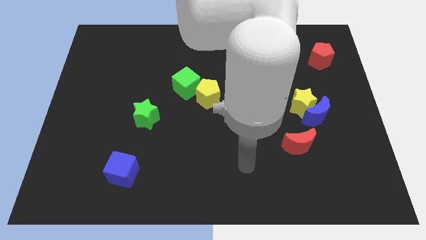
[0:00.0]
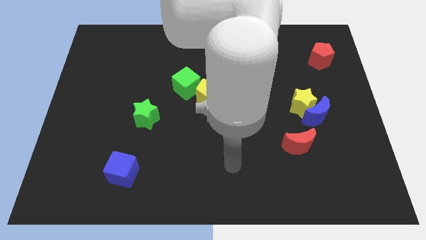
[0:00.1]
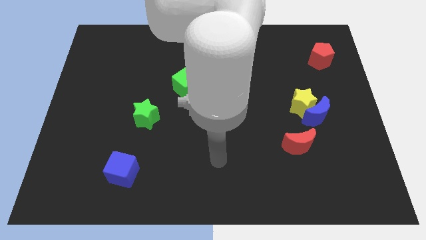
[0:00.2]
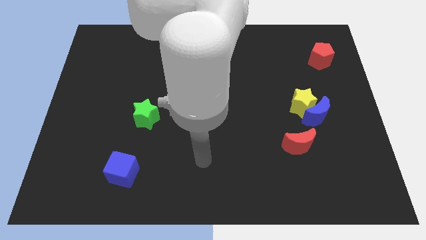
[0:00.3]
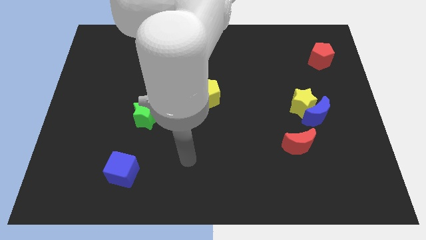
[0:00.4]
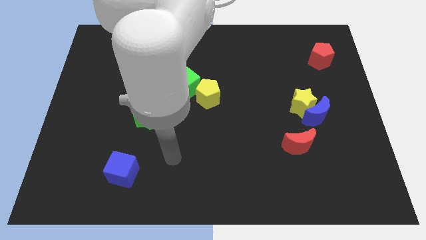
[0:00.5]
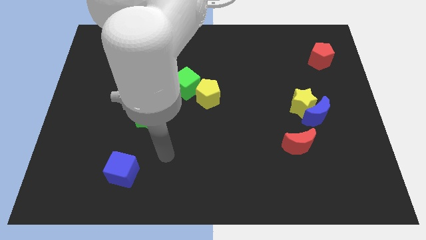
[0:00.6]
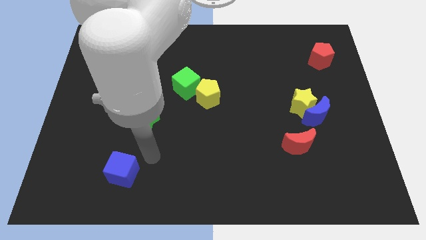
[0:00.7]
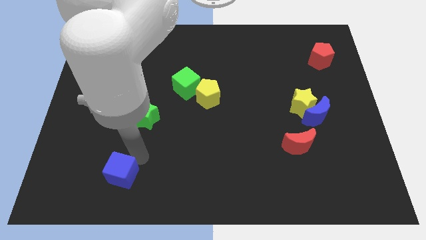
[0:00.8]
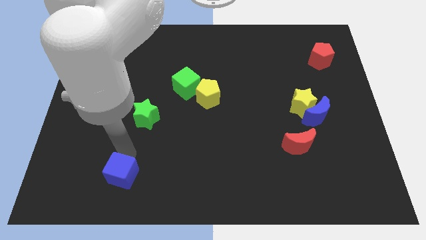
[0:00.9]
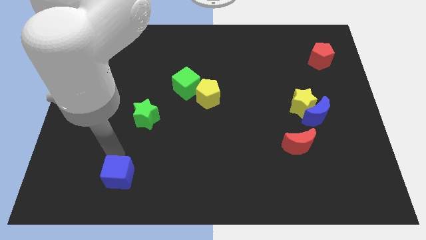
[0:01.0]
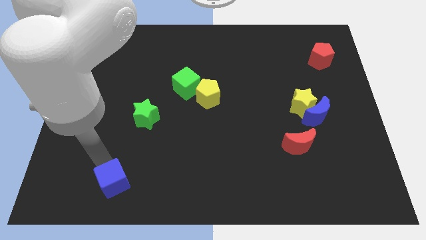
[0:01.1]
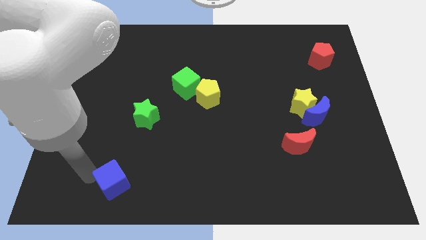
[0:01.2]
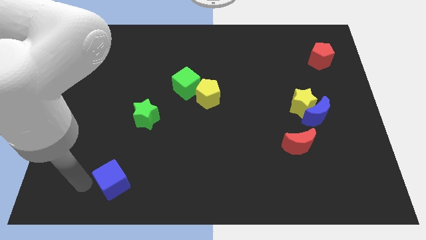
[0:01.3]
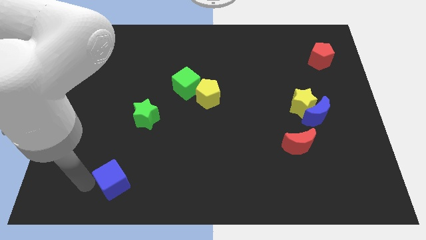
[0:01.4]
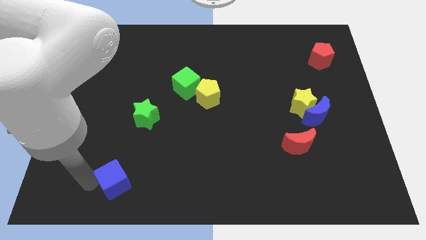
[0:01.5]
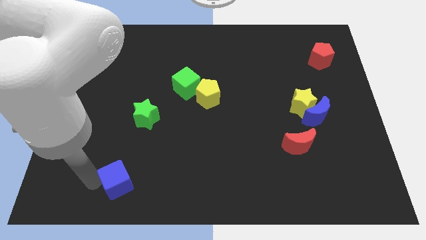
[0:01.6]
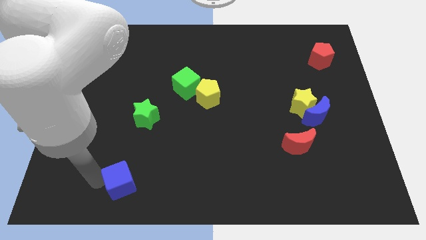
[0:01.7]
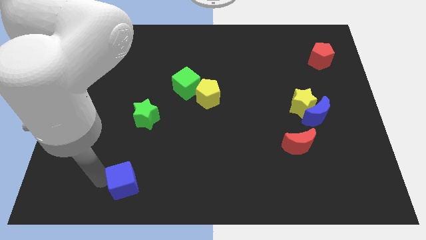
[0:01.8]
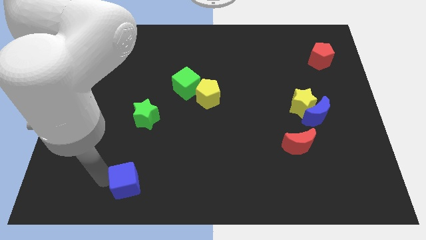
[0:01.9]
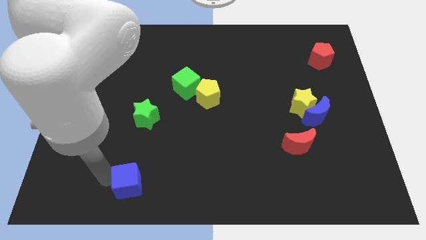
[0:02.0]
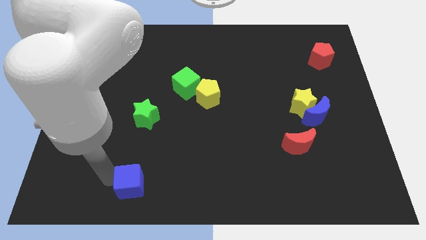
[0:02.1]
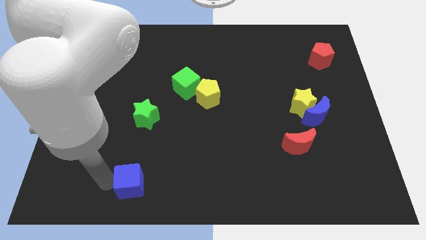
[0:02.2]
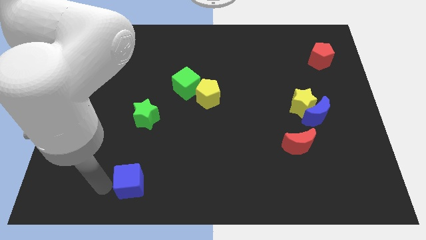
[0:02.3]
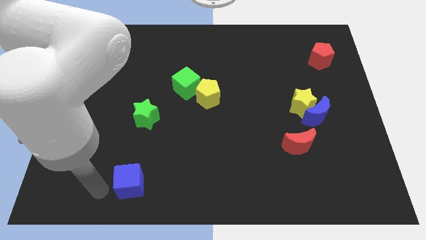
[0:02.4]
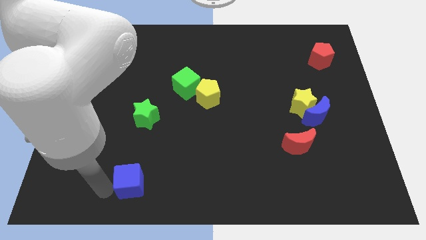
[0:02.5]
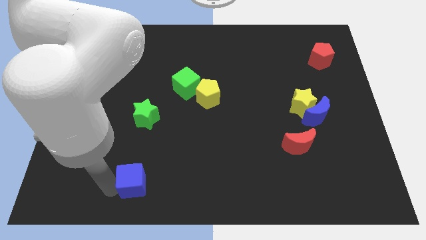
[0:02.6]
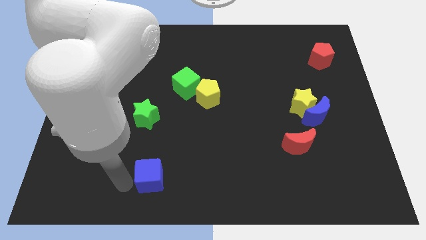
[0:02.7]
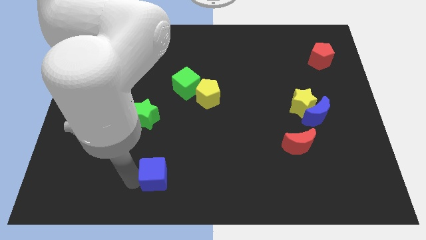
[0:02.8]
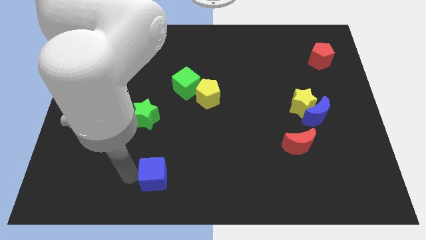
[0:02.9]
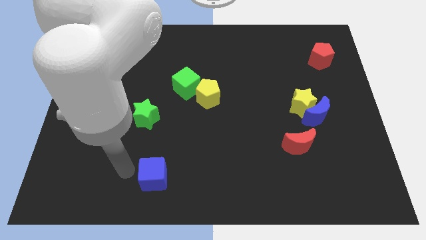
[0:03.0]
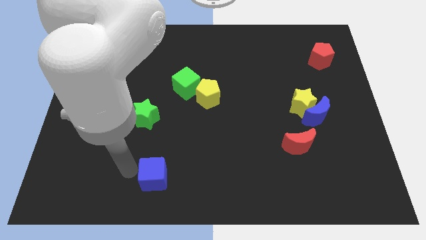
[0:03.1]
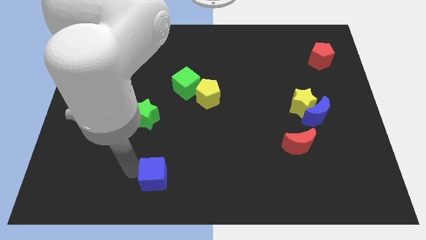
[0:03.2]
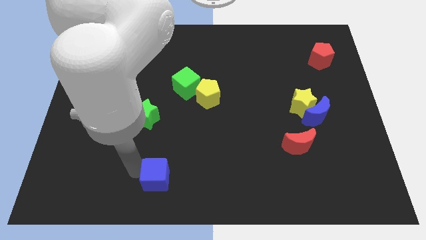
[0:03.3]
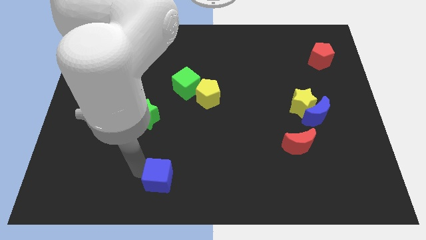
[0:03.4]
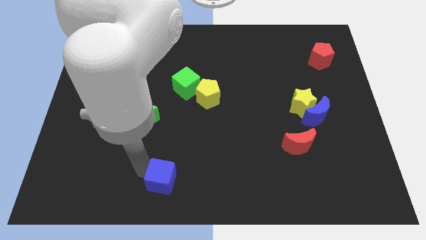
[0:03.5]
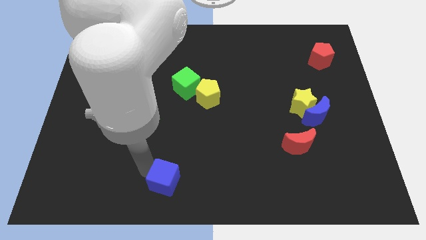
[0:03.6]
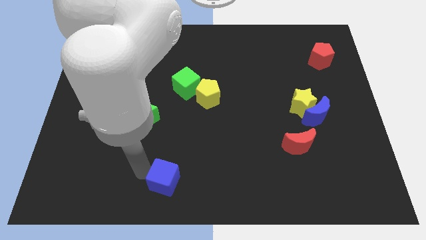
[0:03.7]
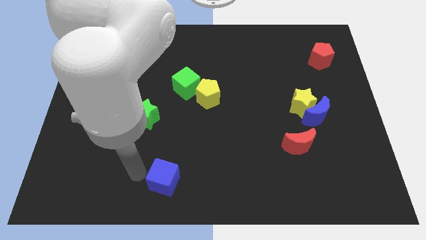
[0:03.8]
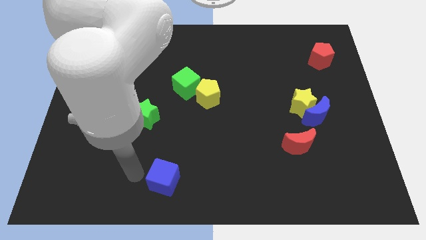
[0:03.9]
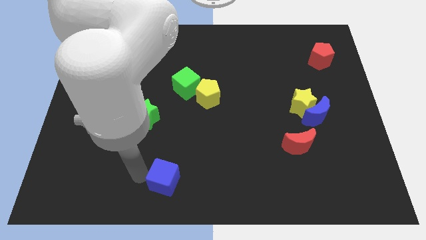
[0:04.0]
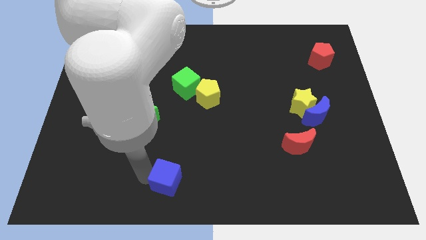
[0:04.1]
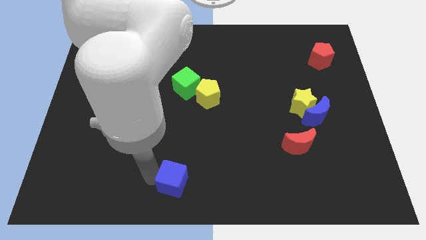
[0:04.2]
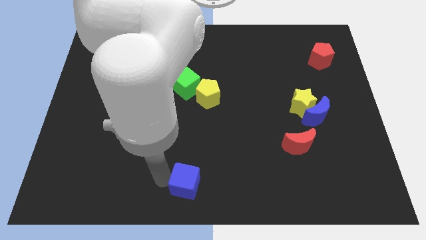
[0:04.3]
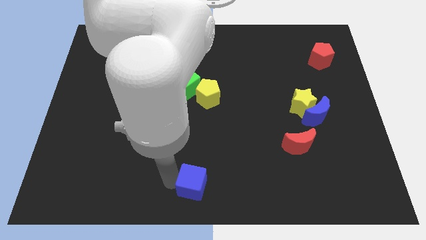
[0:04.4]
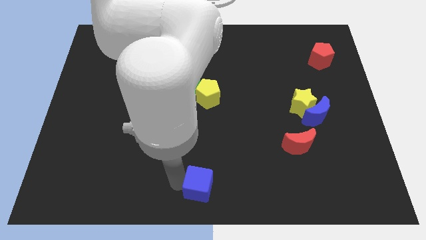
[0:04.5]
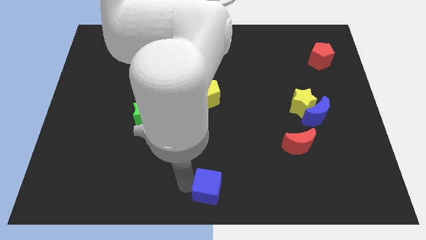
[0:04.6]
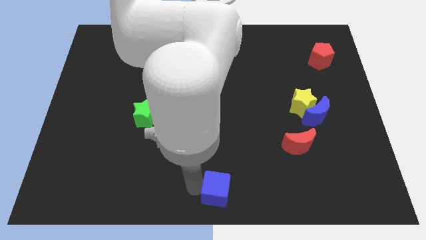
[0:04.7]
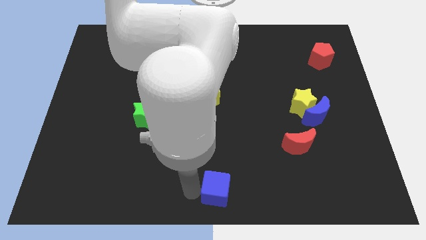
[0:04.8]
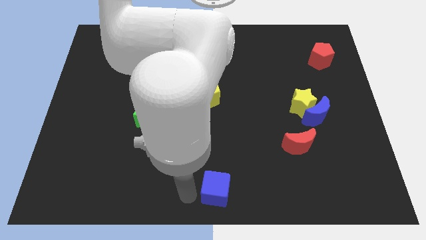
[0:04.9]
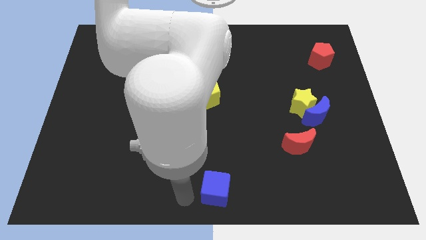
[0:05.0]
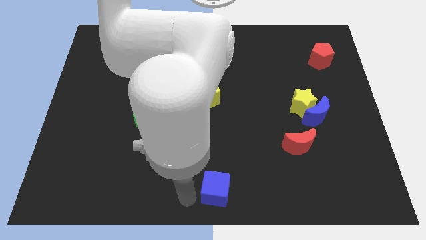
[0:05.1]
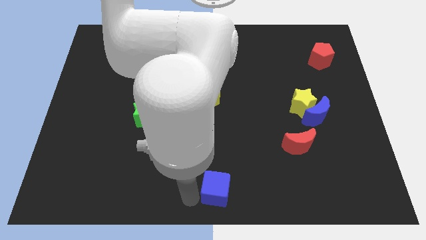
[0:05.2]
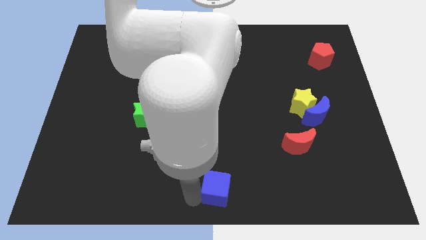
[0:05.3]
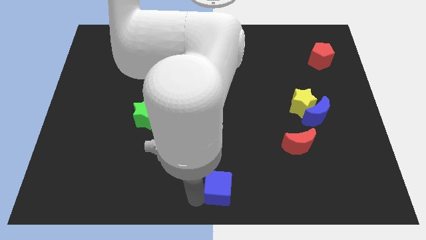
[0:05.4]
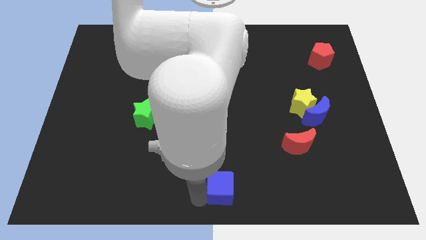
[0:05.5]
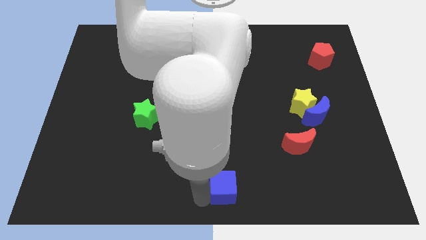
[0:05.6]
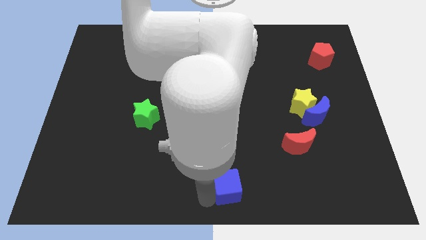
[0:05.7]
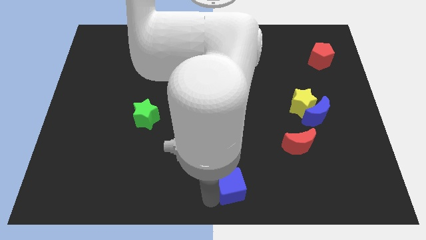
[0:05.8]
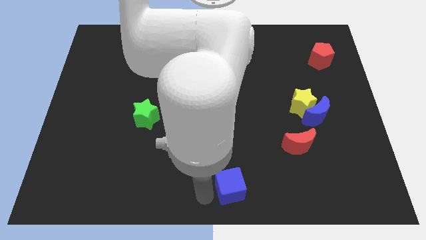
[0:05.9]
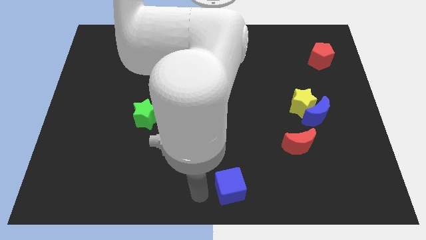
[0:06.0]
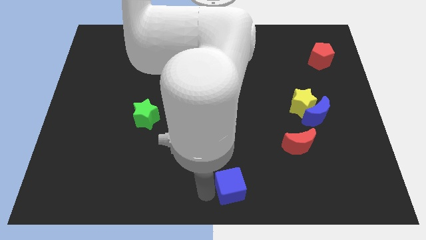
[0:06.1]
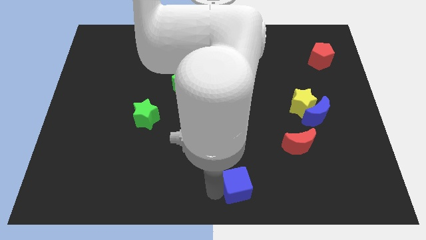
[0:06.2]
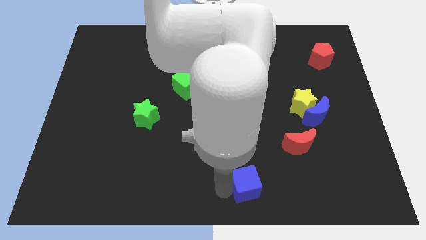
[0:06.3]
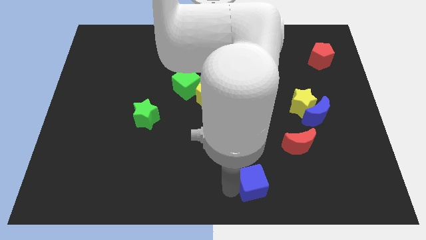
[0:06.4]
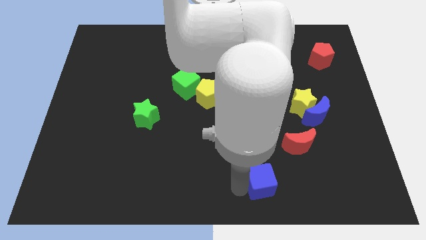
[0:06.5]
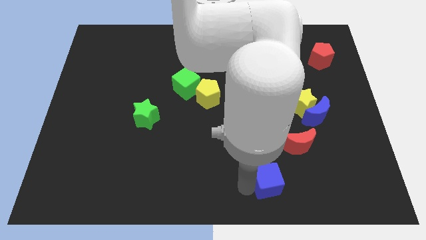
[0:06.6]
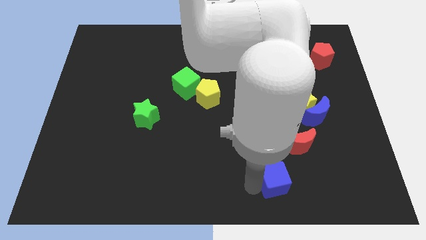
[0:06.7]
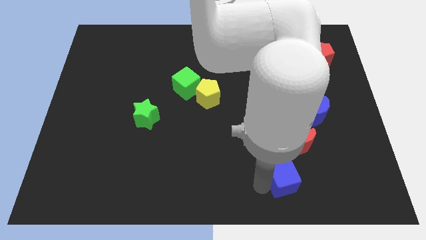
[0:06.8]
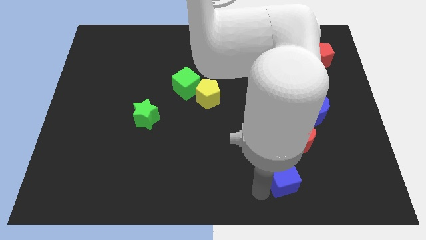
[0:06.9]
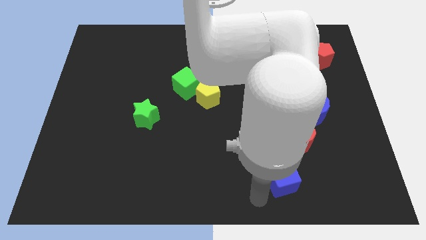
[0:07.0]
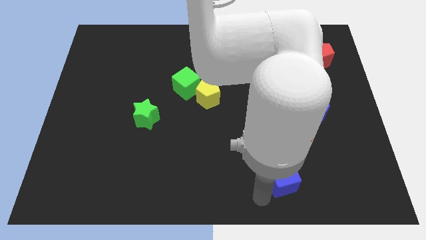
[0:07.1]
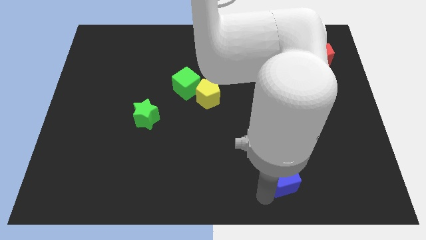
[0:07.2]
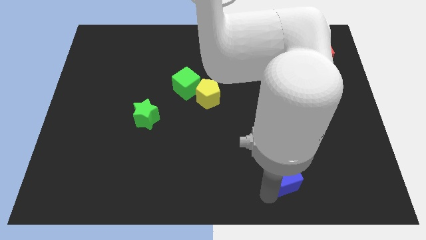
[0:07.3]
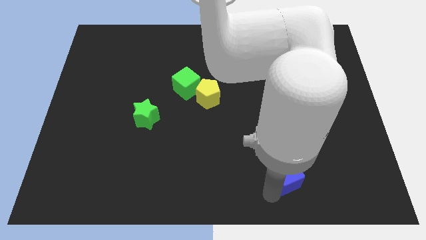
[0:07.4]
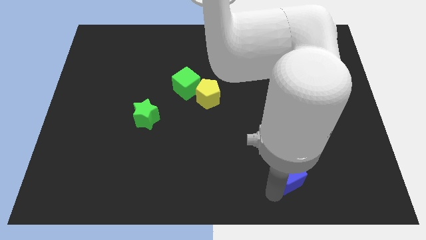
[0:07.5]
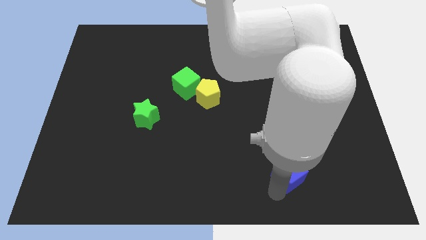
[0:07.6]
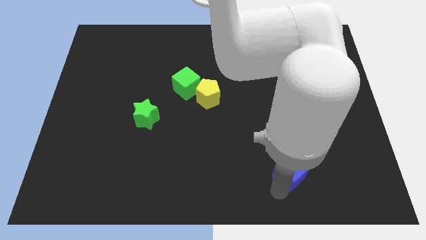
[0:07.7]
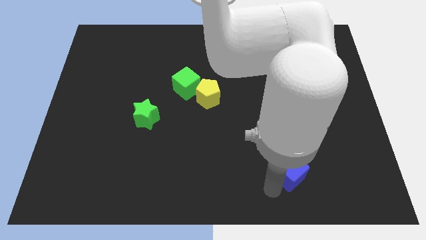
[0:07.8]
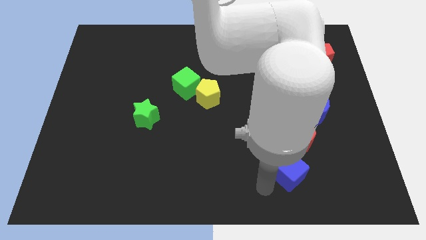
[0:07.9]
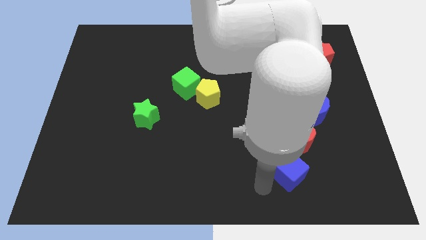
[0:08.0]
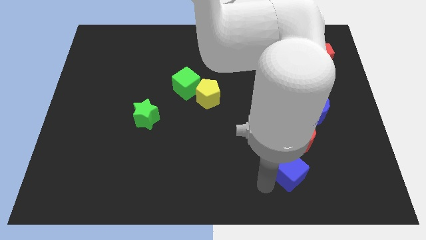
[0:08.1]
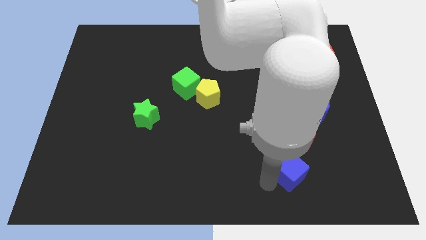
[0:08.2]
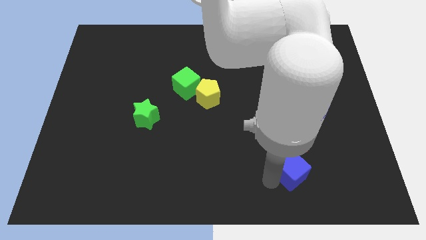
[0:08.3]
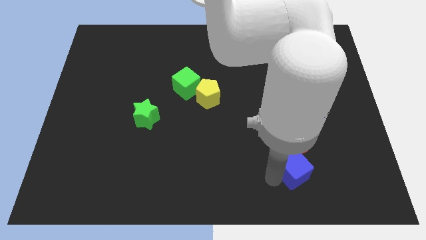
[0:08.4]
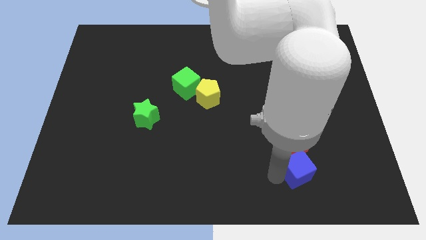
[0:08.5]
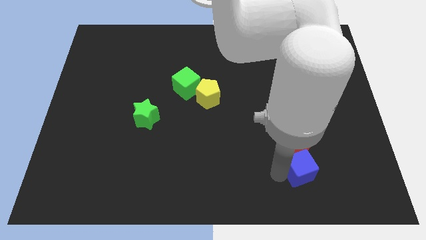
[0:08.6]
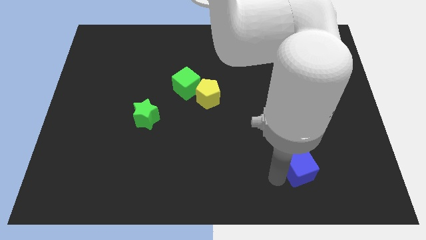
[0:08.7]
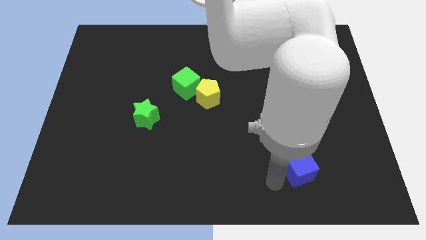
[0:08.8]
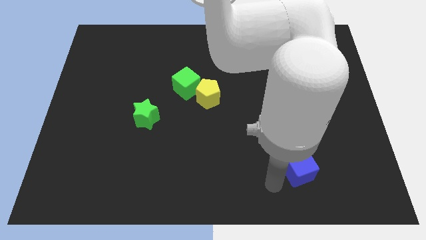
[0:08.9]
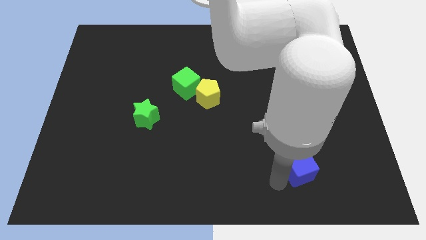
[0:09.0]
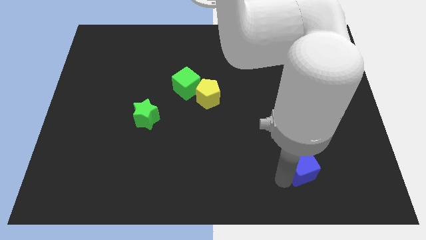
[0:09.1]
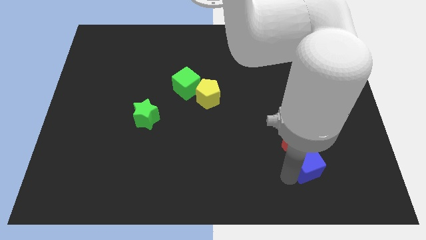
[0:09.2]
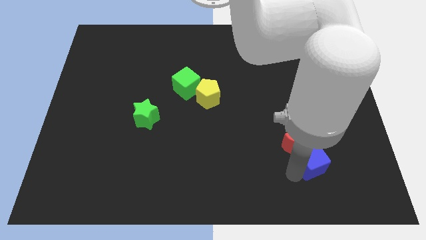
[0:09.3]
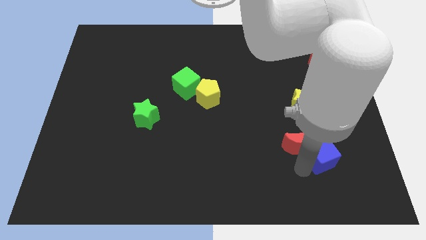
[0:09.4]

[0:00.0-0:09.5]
push the blue cube to the right side of the red moon
